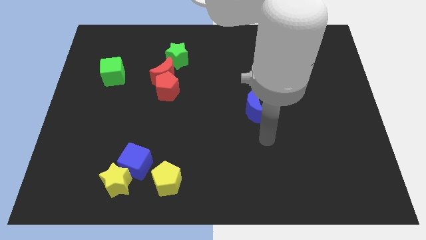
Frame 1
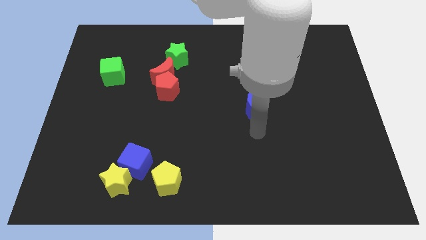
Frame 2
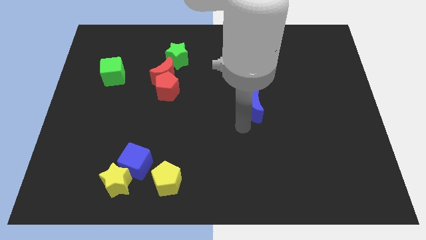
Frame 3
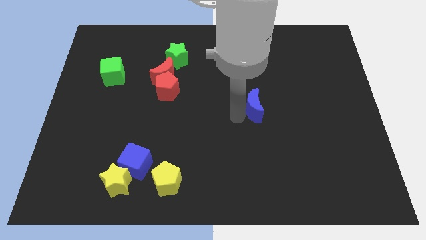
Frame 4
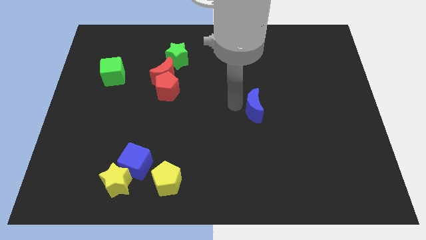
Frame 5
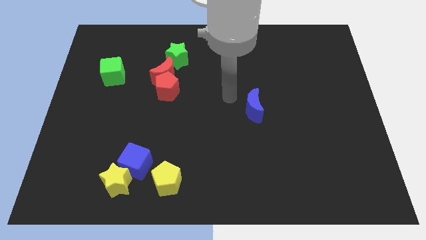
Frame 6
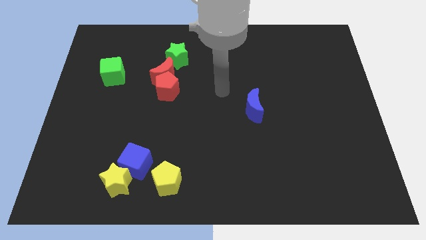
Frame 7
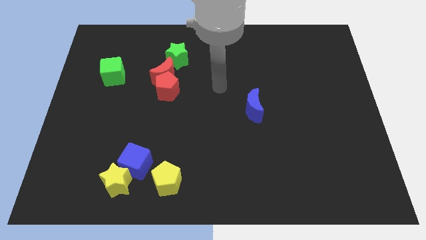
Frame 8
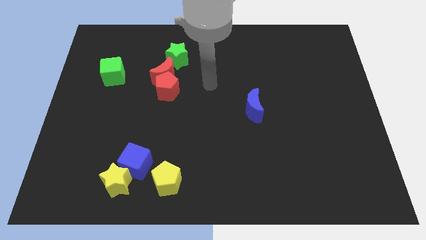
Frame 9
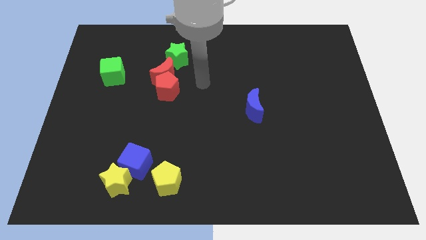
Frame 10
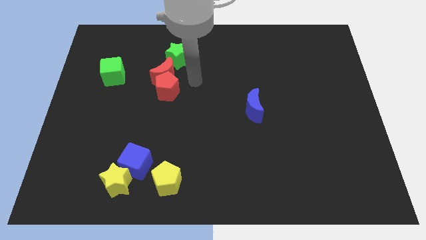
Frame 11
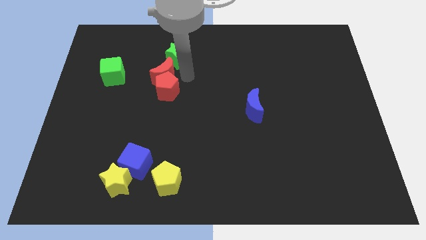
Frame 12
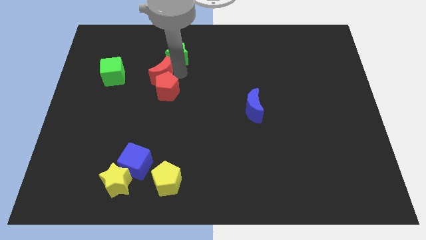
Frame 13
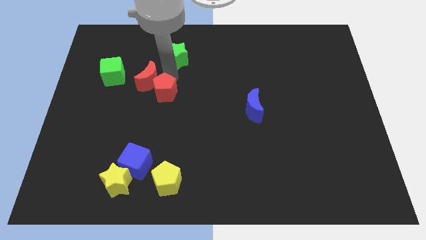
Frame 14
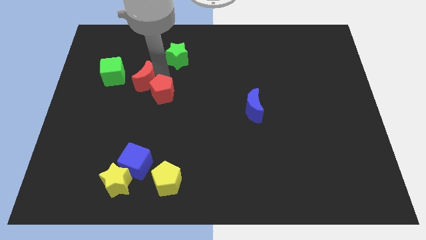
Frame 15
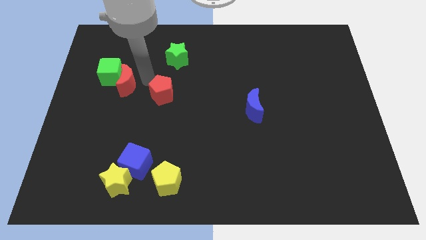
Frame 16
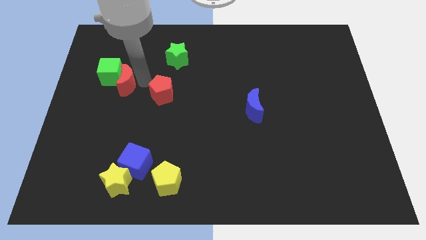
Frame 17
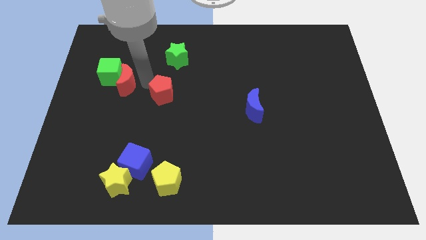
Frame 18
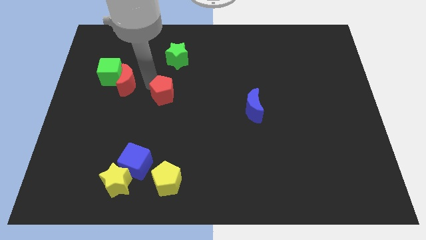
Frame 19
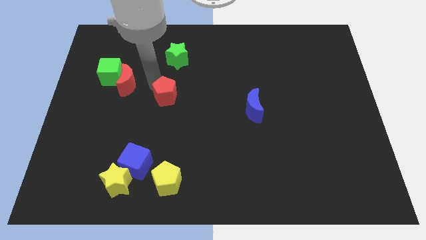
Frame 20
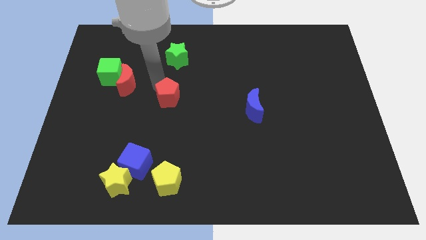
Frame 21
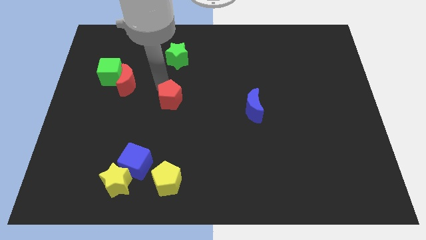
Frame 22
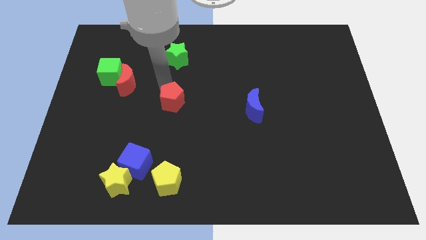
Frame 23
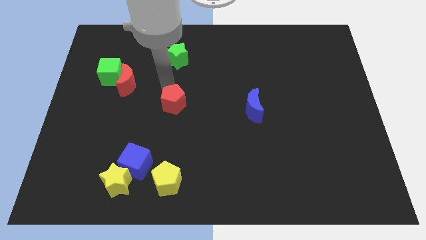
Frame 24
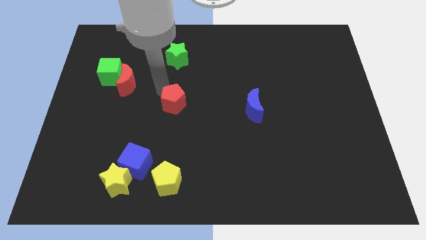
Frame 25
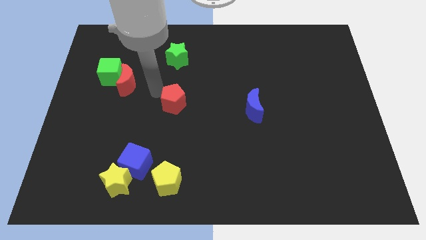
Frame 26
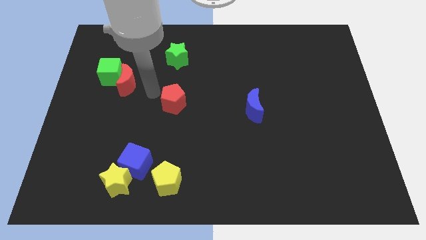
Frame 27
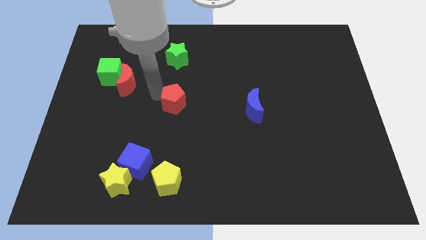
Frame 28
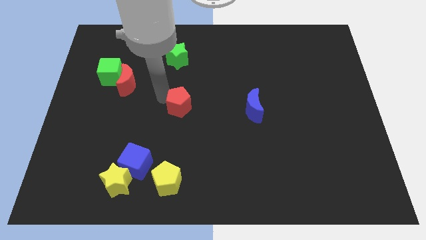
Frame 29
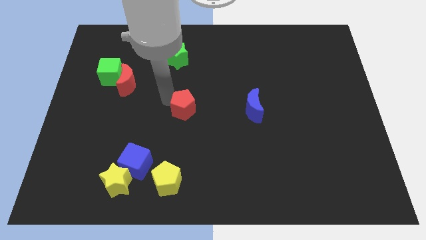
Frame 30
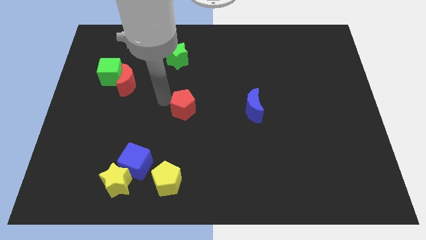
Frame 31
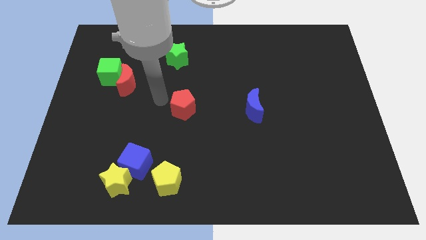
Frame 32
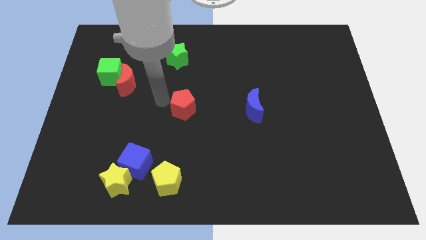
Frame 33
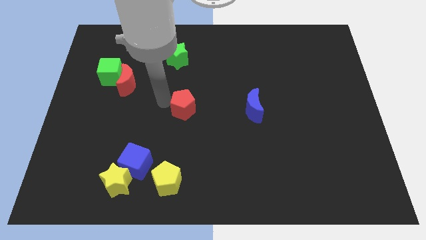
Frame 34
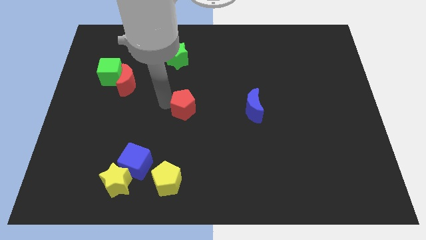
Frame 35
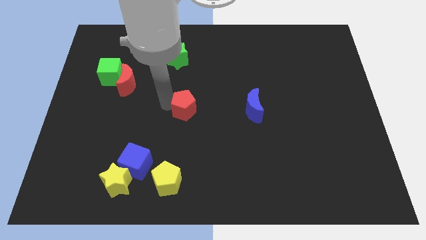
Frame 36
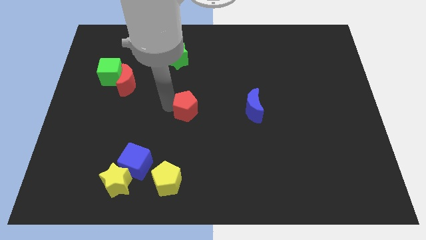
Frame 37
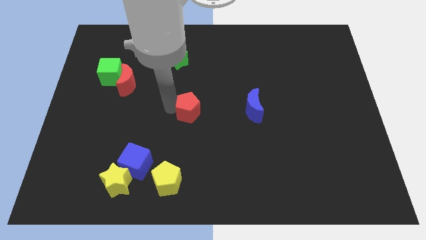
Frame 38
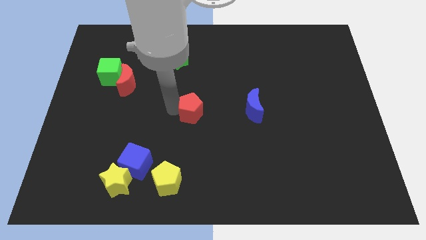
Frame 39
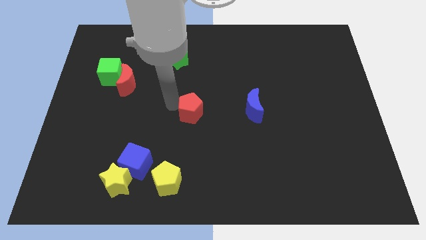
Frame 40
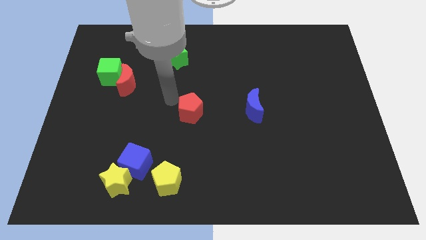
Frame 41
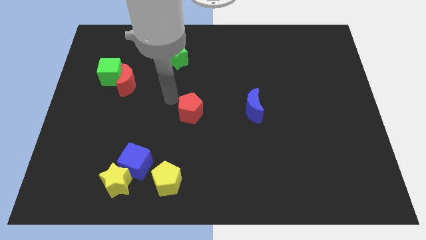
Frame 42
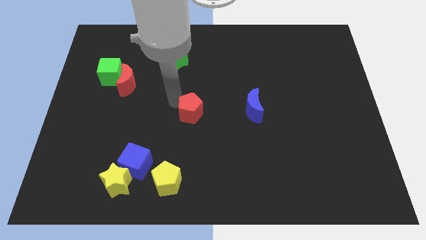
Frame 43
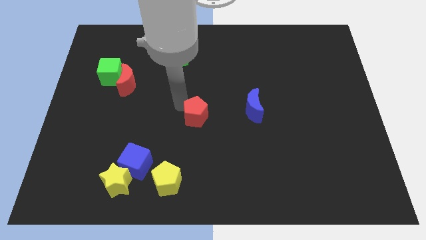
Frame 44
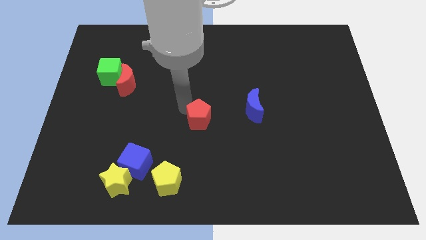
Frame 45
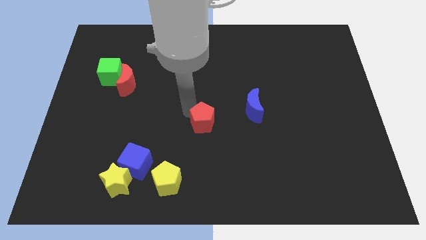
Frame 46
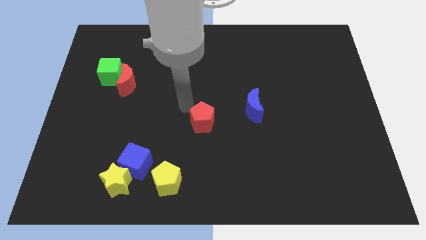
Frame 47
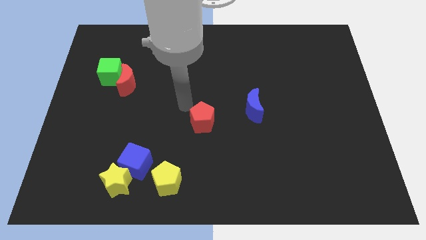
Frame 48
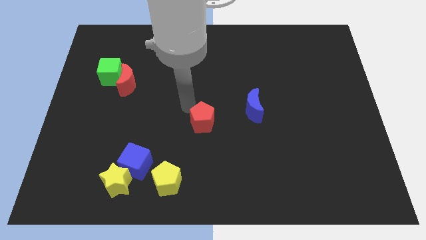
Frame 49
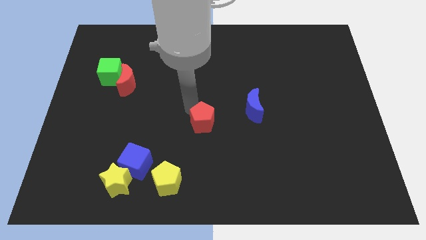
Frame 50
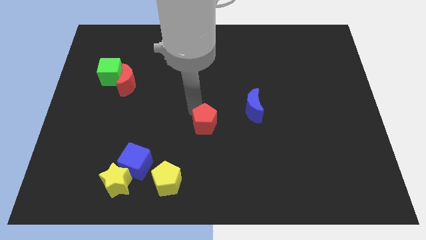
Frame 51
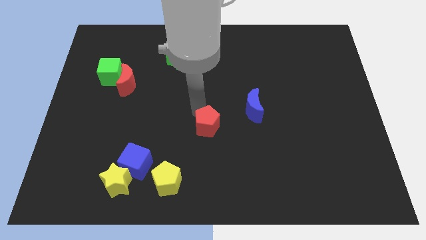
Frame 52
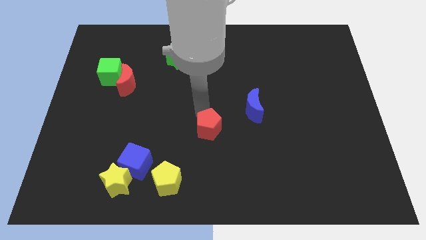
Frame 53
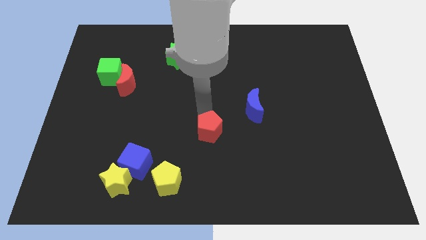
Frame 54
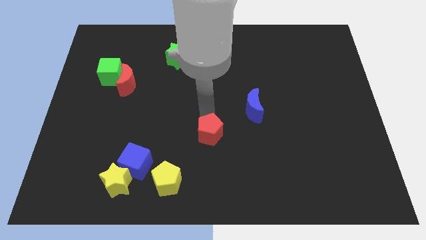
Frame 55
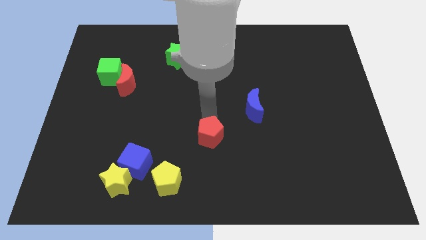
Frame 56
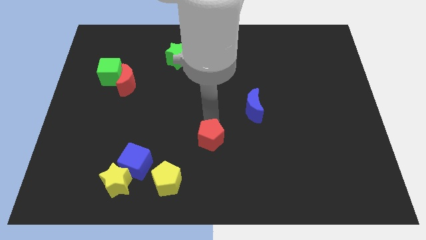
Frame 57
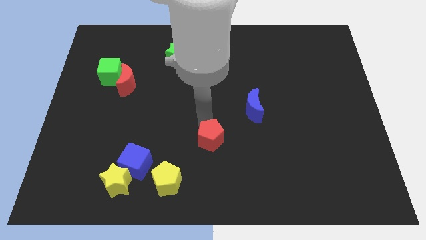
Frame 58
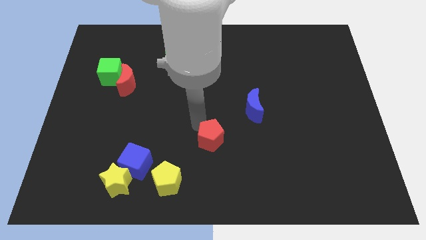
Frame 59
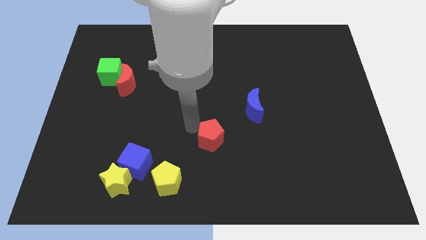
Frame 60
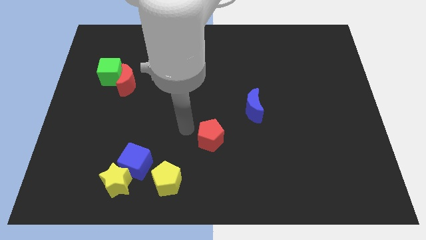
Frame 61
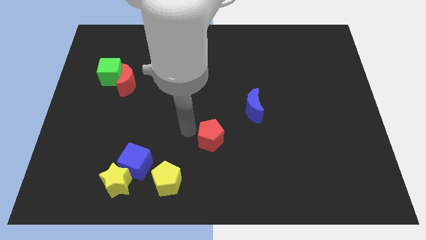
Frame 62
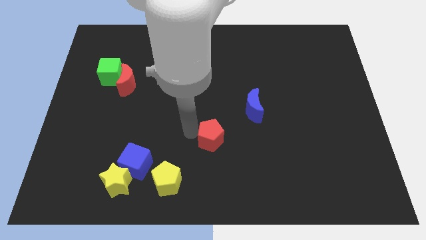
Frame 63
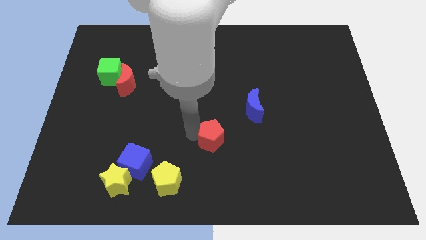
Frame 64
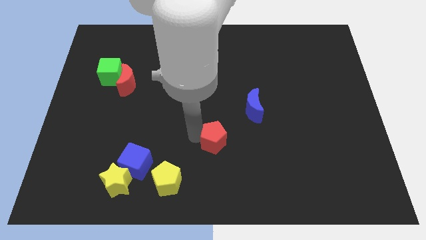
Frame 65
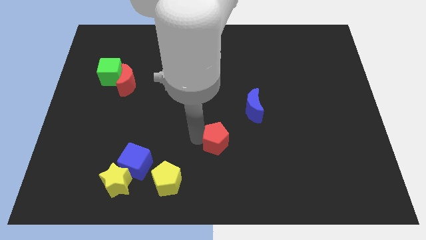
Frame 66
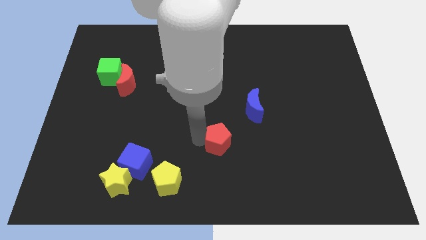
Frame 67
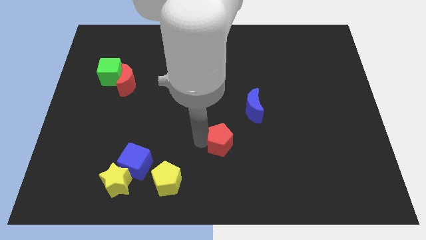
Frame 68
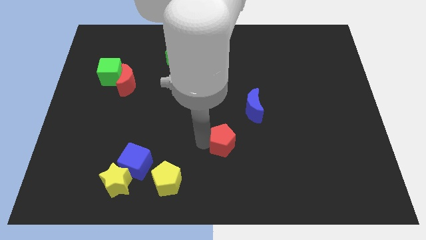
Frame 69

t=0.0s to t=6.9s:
push the red pentagon down and to the right diagonally

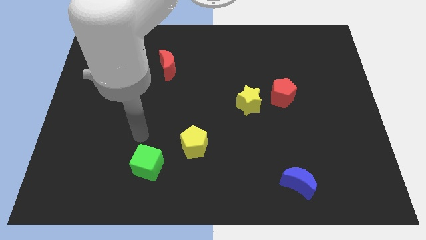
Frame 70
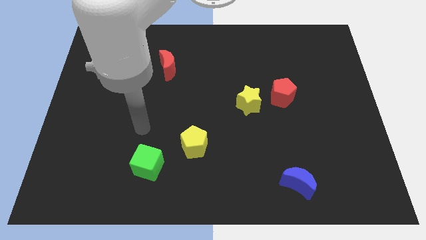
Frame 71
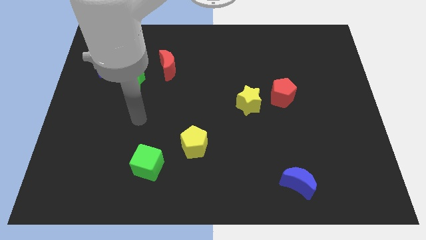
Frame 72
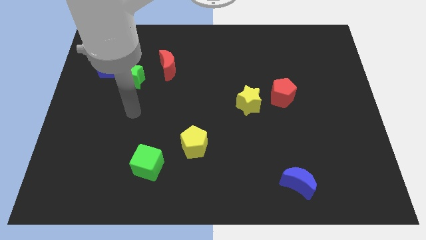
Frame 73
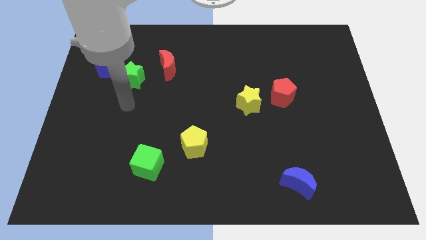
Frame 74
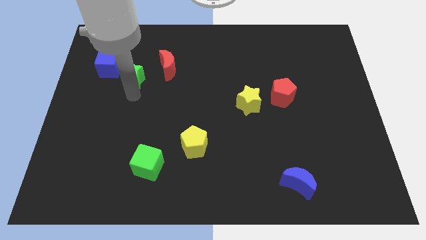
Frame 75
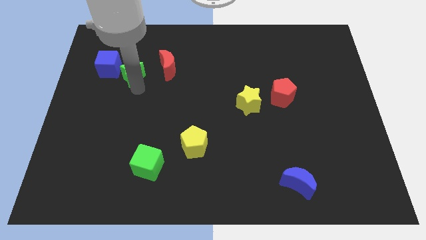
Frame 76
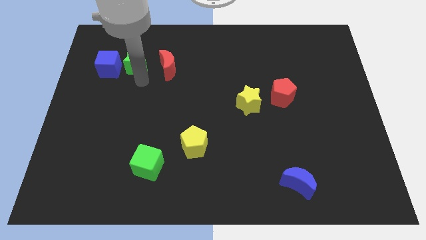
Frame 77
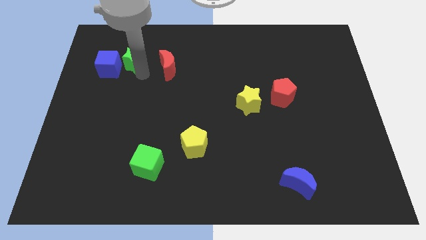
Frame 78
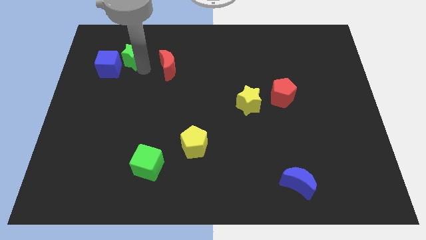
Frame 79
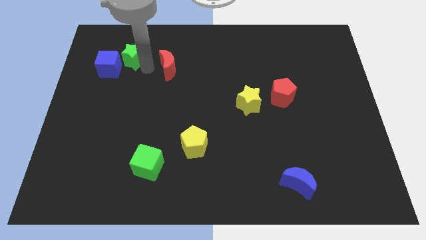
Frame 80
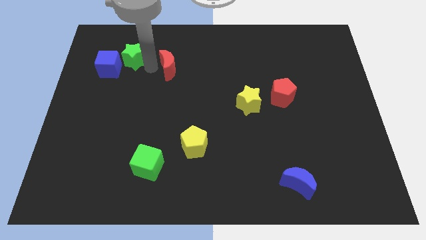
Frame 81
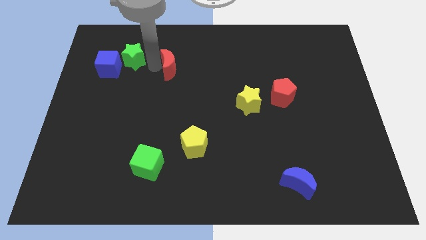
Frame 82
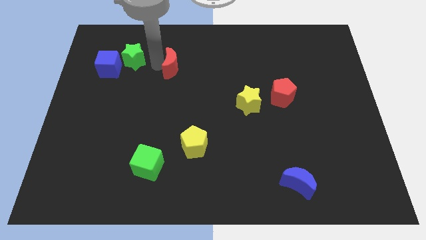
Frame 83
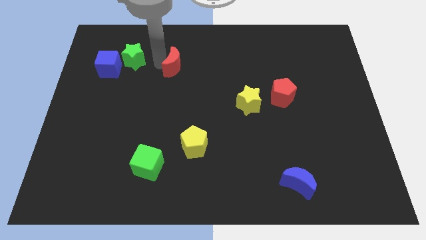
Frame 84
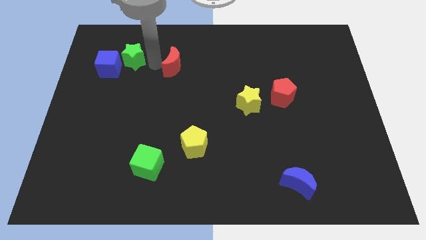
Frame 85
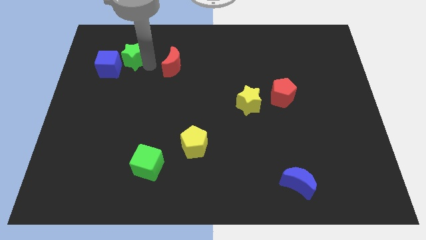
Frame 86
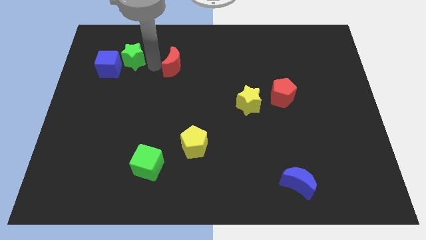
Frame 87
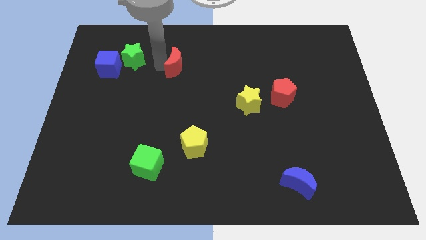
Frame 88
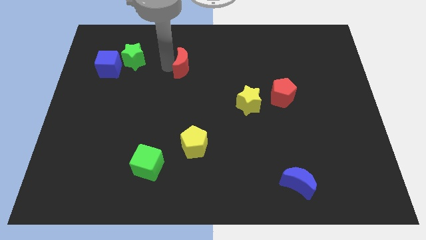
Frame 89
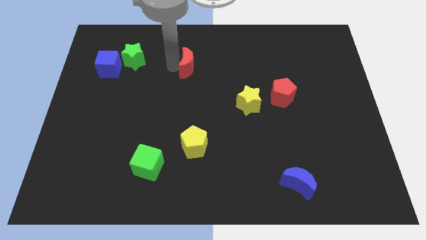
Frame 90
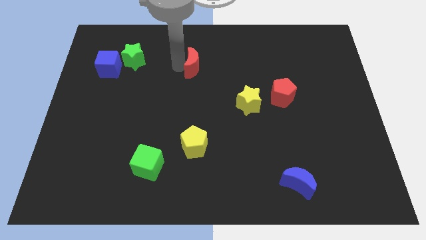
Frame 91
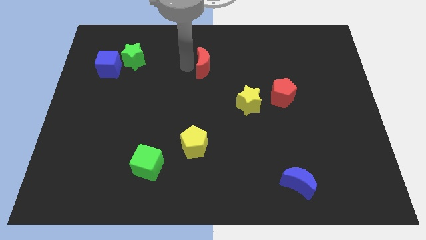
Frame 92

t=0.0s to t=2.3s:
slide the red moon to the right somewhat
